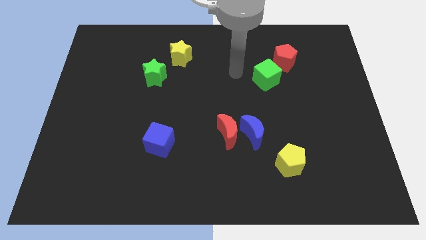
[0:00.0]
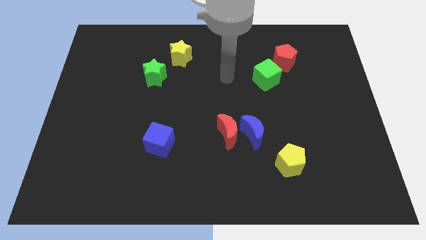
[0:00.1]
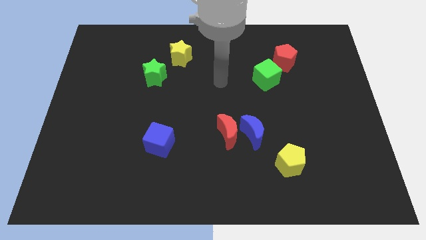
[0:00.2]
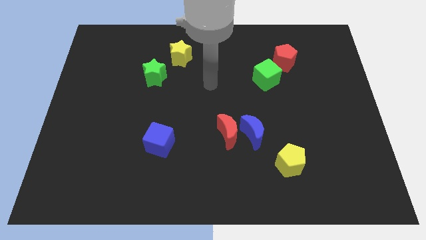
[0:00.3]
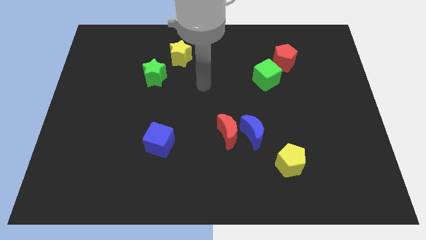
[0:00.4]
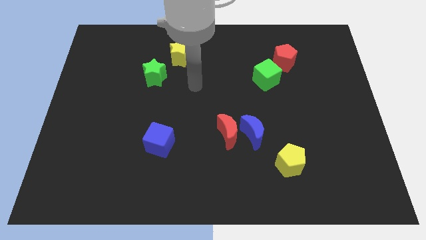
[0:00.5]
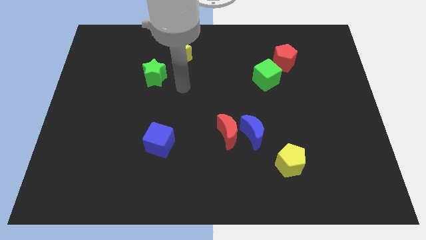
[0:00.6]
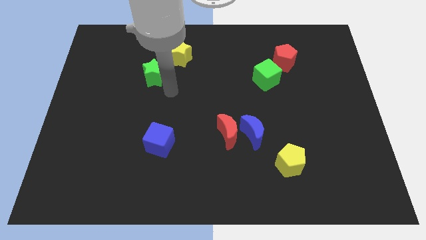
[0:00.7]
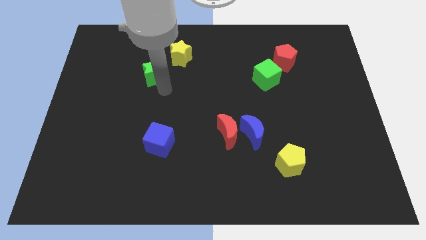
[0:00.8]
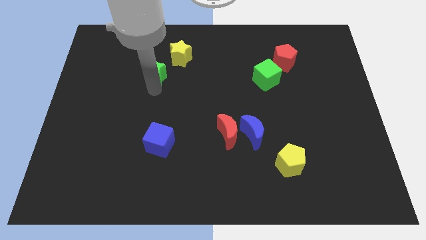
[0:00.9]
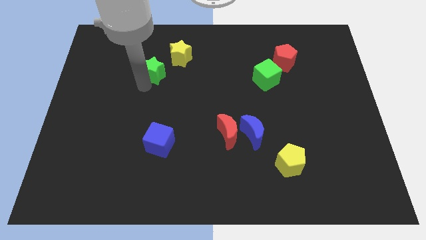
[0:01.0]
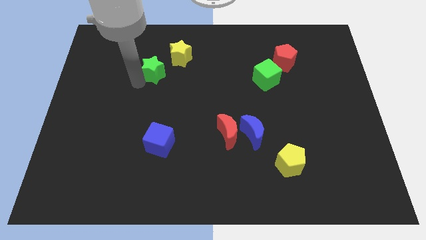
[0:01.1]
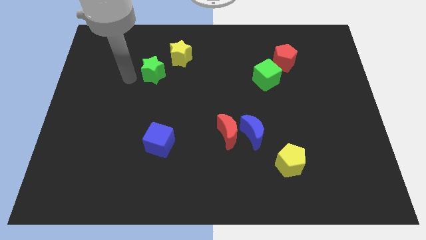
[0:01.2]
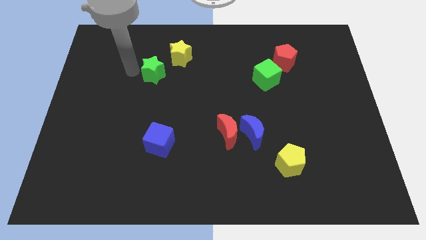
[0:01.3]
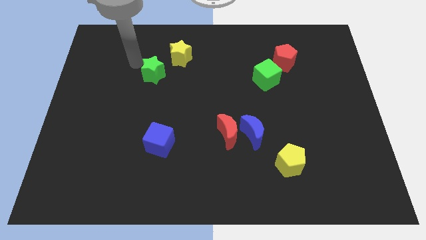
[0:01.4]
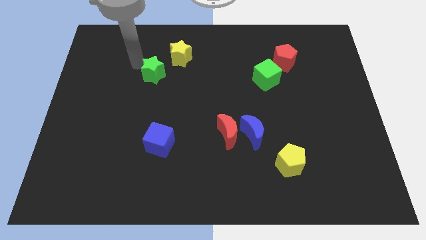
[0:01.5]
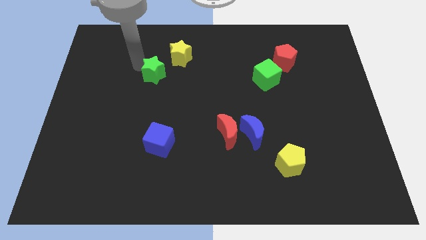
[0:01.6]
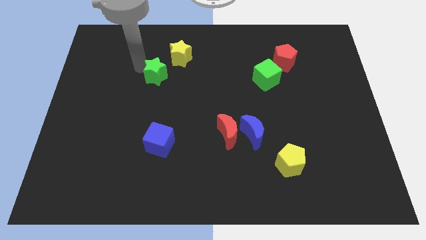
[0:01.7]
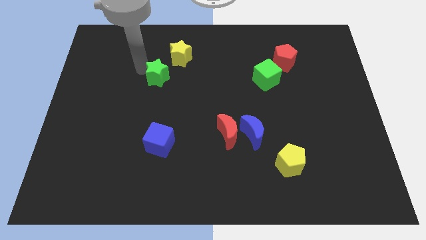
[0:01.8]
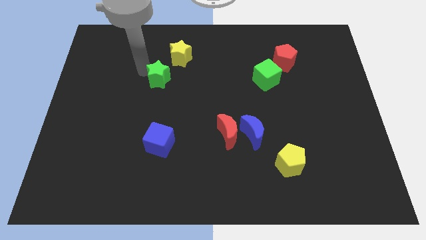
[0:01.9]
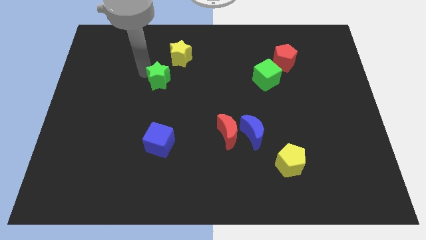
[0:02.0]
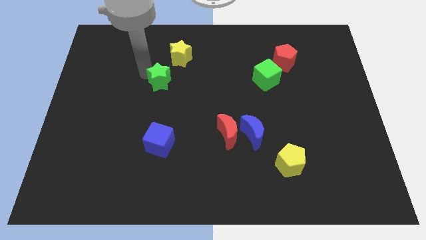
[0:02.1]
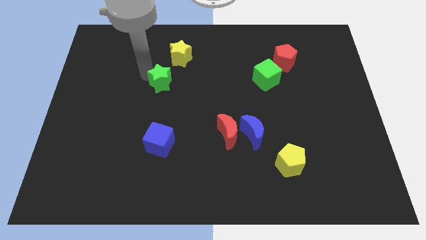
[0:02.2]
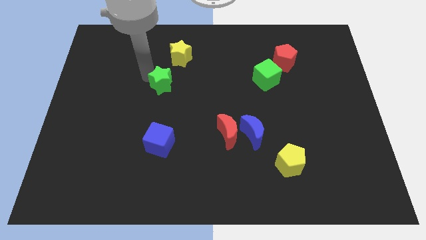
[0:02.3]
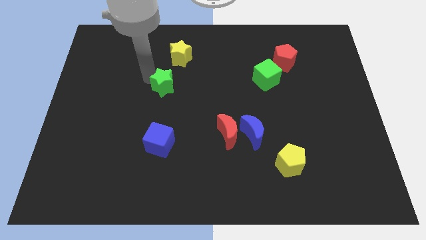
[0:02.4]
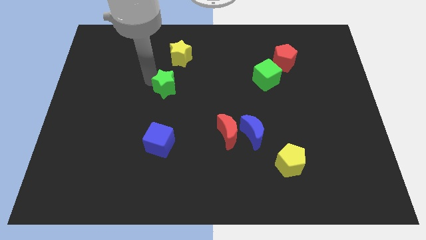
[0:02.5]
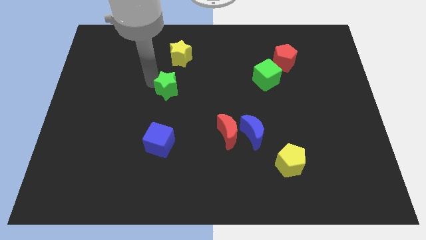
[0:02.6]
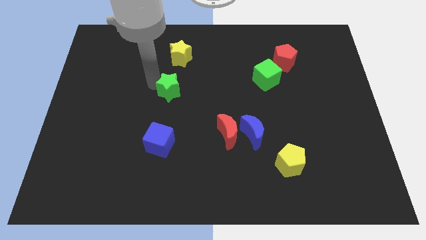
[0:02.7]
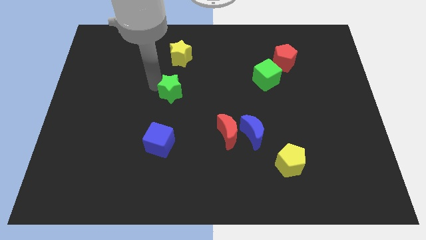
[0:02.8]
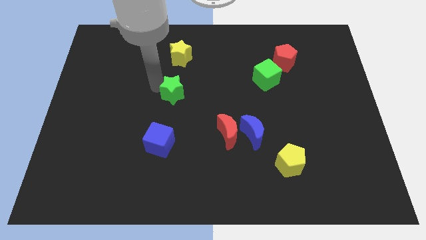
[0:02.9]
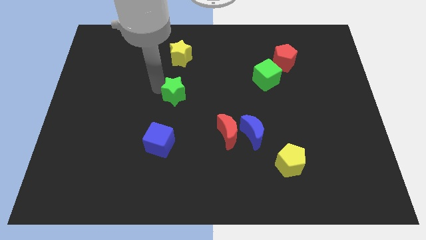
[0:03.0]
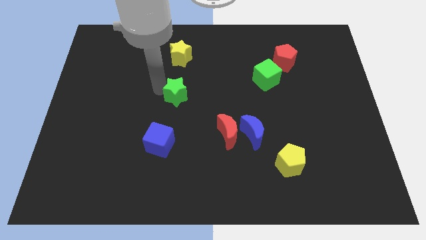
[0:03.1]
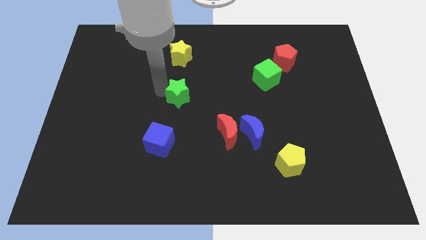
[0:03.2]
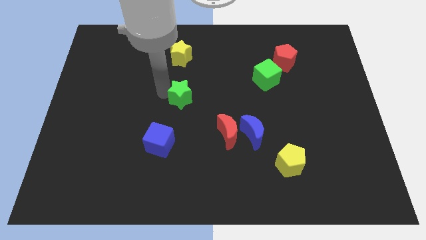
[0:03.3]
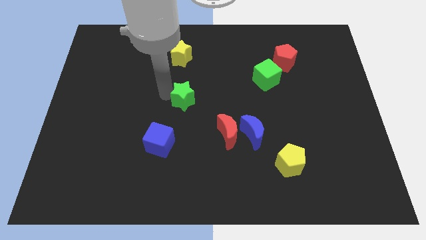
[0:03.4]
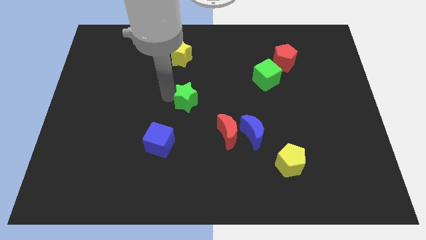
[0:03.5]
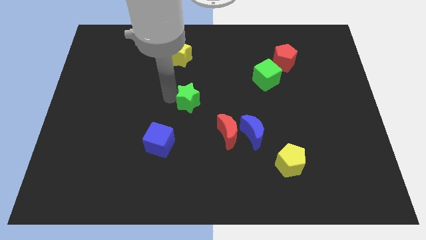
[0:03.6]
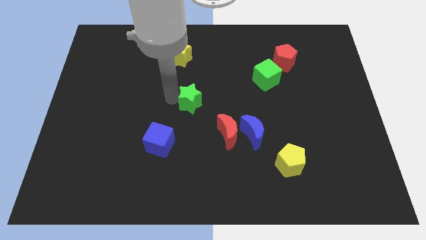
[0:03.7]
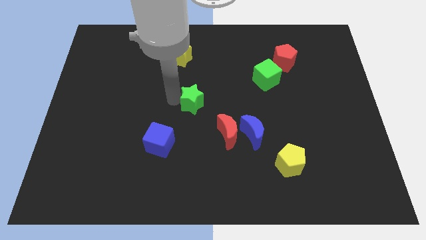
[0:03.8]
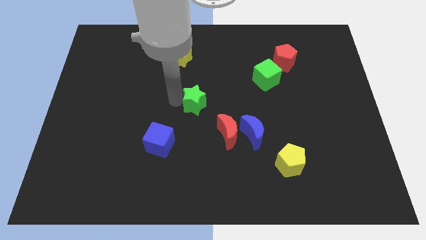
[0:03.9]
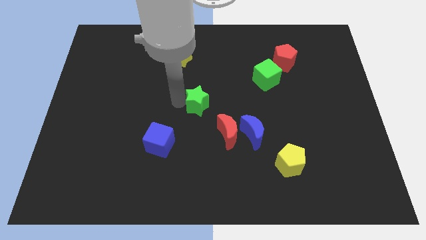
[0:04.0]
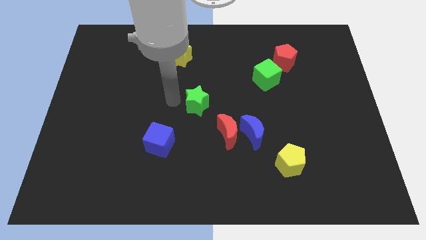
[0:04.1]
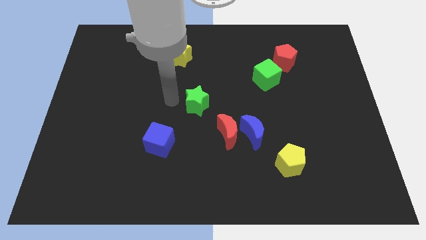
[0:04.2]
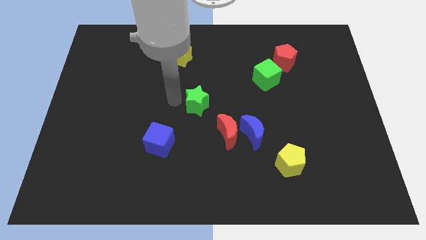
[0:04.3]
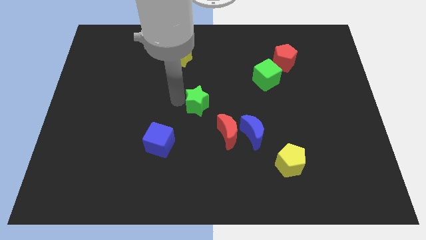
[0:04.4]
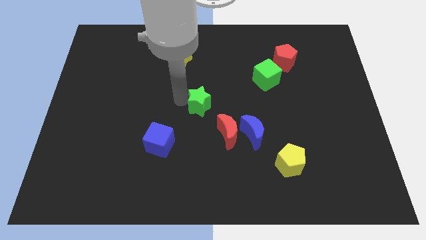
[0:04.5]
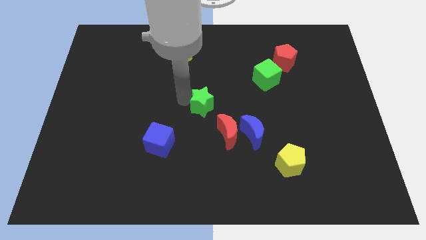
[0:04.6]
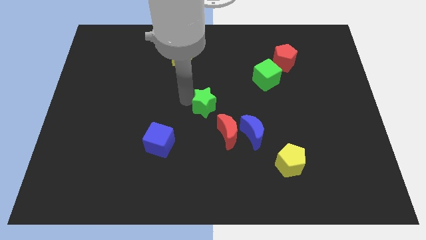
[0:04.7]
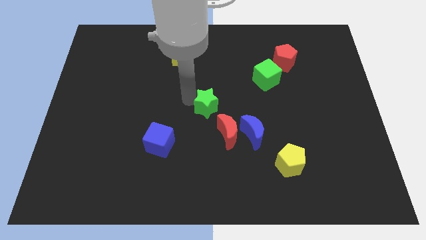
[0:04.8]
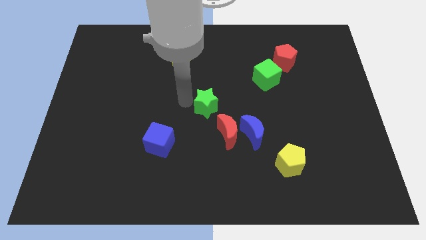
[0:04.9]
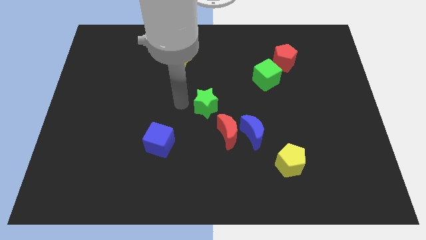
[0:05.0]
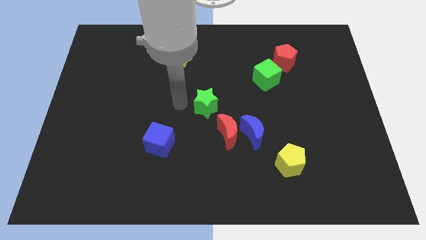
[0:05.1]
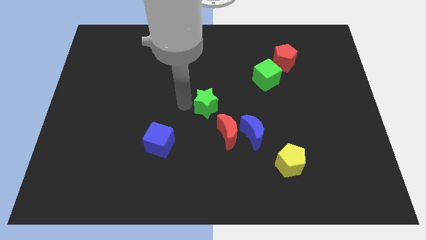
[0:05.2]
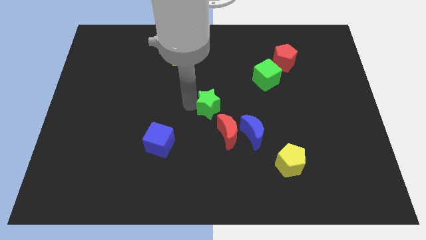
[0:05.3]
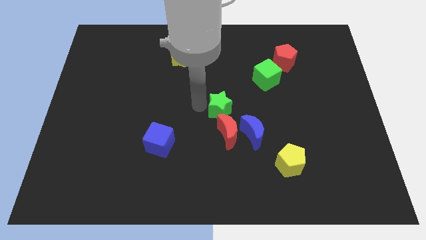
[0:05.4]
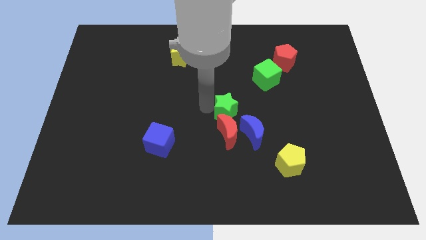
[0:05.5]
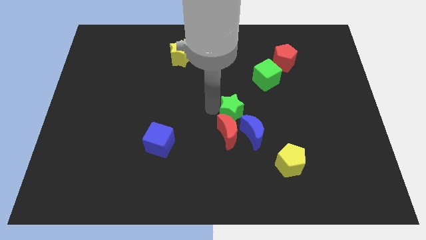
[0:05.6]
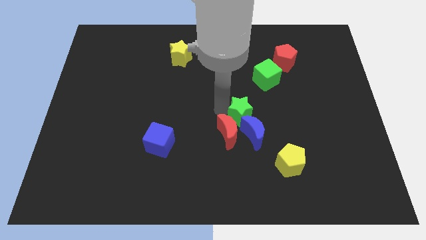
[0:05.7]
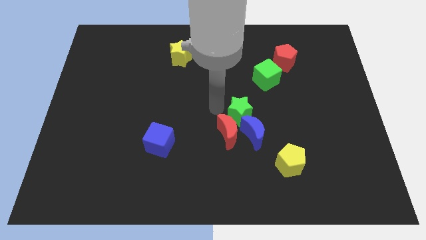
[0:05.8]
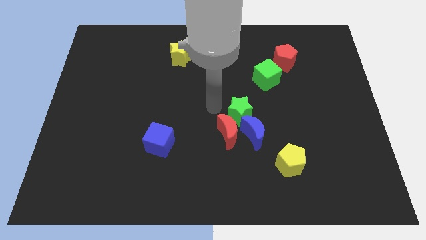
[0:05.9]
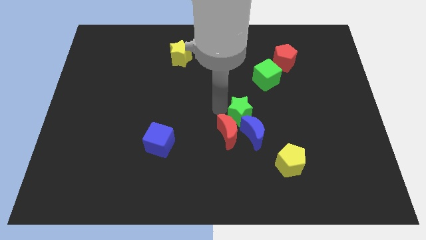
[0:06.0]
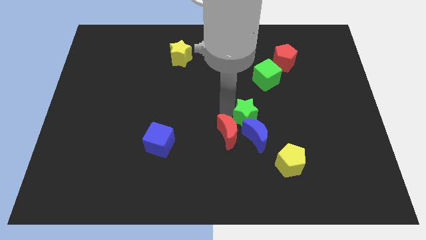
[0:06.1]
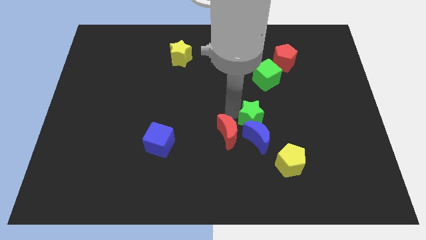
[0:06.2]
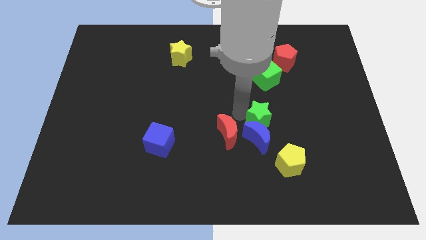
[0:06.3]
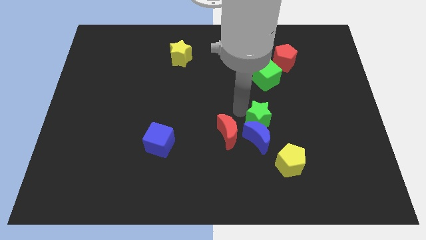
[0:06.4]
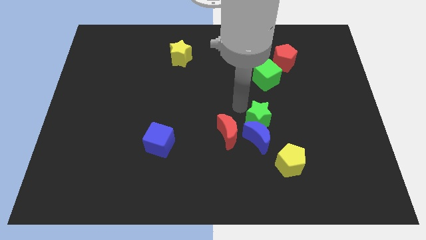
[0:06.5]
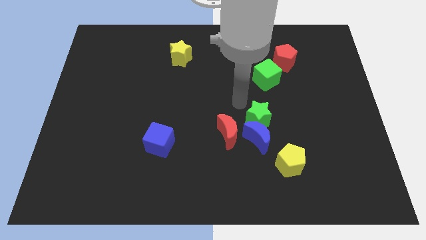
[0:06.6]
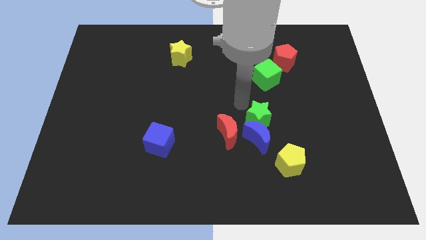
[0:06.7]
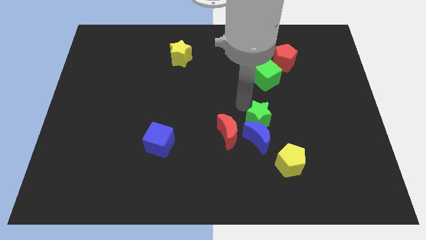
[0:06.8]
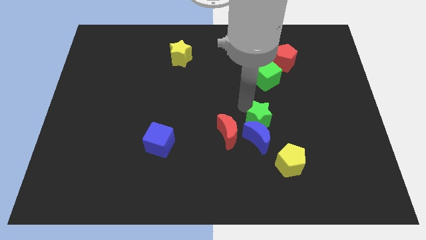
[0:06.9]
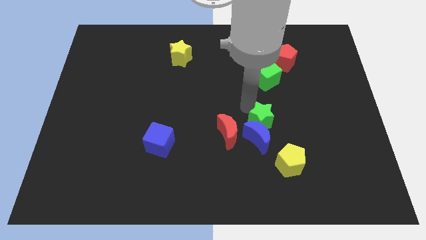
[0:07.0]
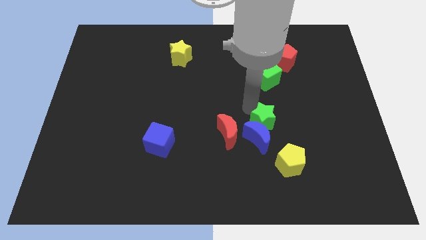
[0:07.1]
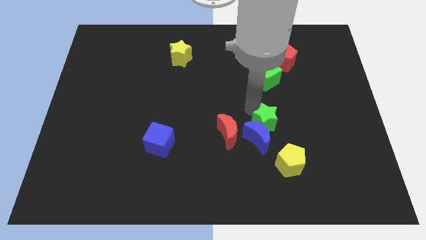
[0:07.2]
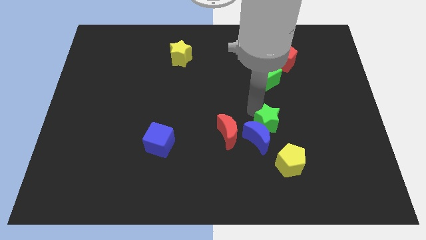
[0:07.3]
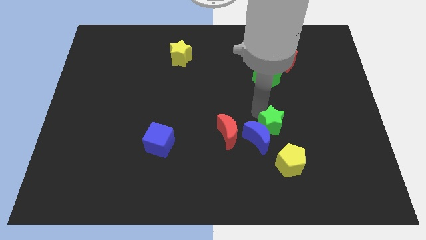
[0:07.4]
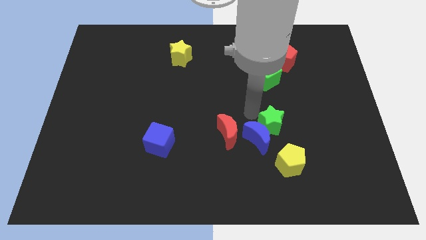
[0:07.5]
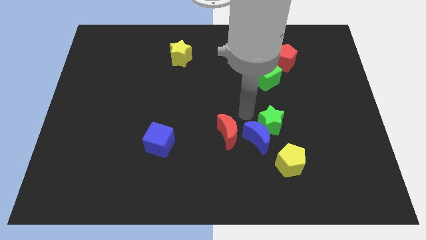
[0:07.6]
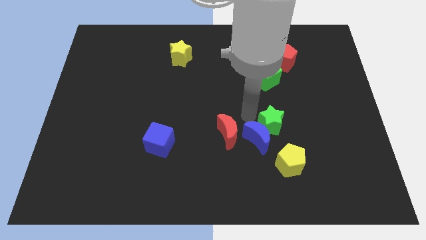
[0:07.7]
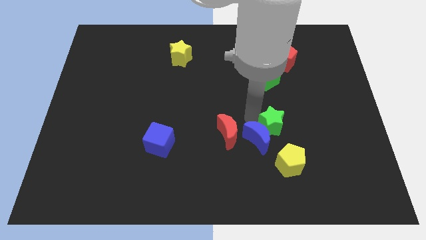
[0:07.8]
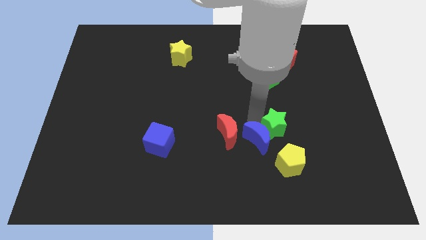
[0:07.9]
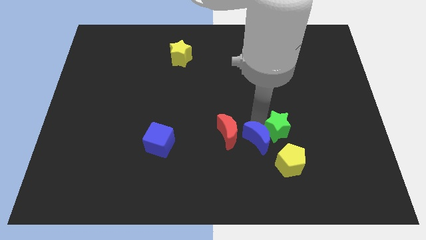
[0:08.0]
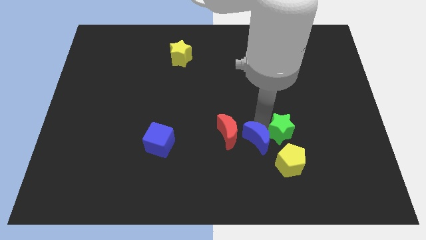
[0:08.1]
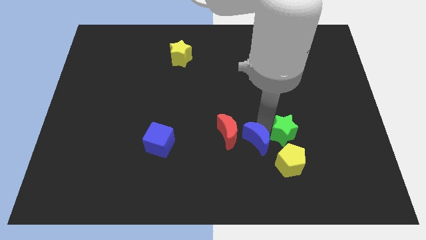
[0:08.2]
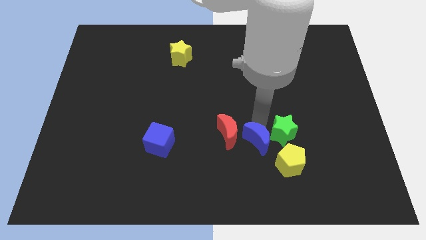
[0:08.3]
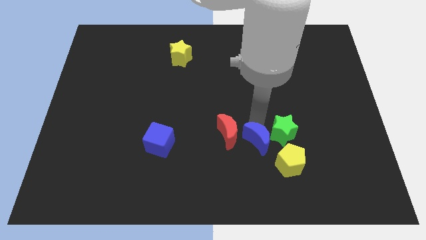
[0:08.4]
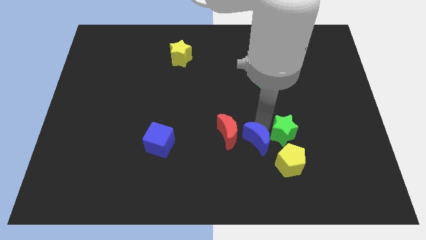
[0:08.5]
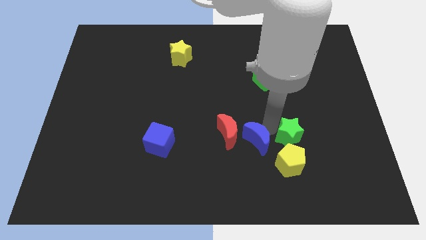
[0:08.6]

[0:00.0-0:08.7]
move the green star diagonally up and to the right of the yellow pentagon
